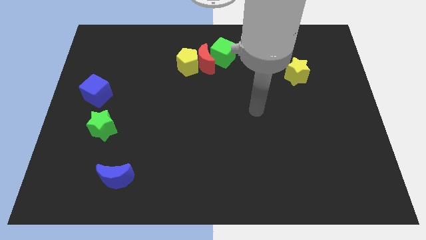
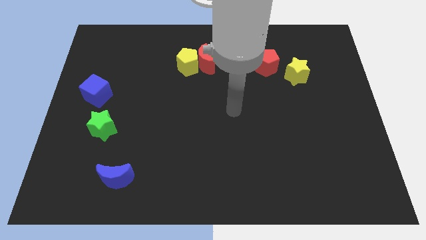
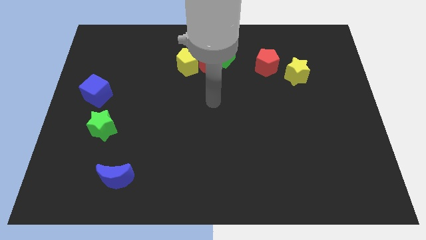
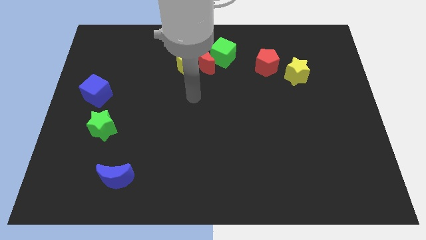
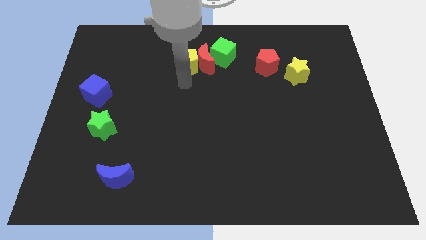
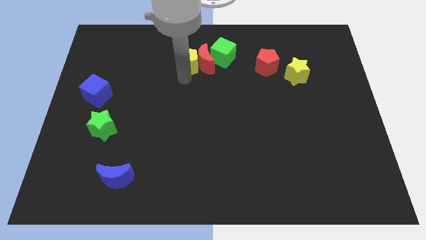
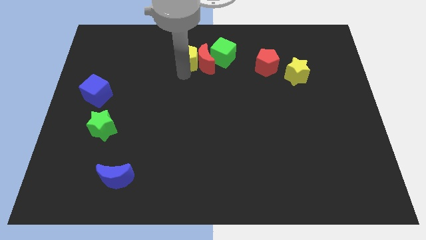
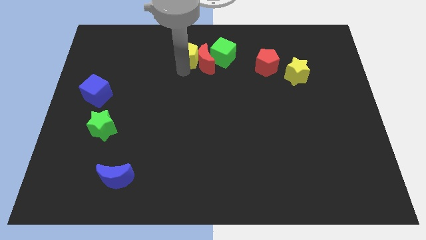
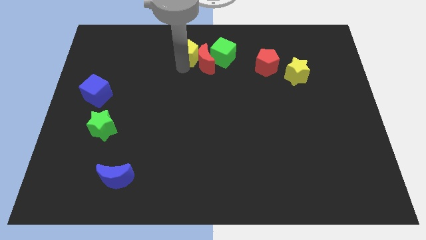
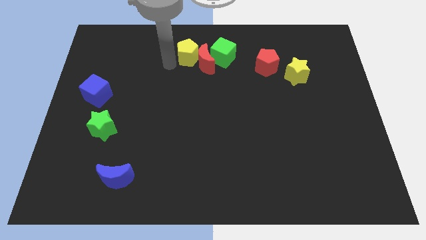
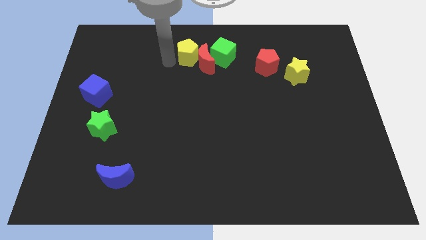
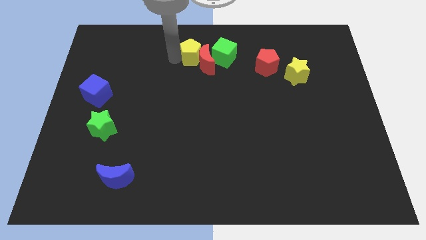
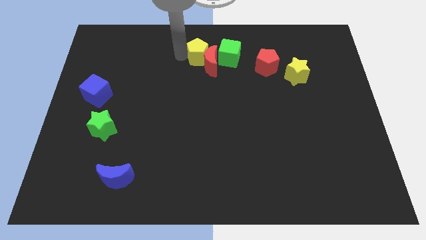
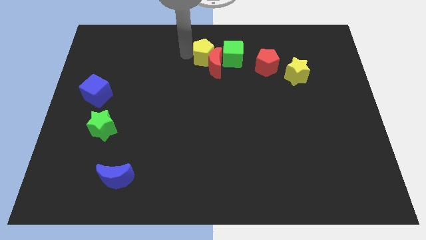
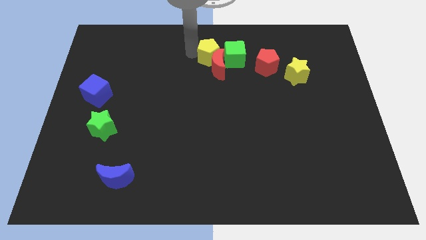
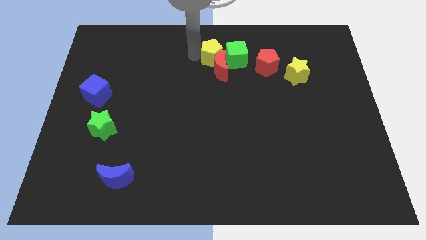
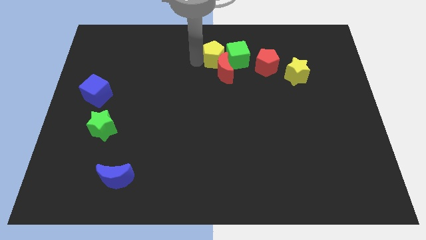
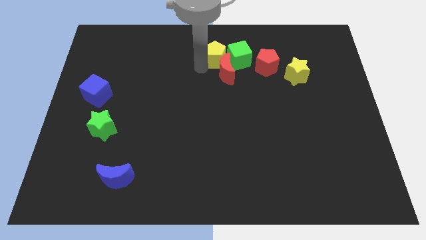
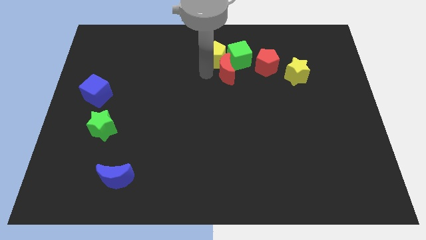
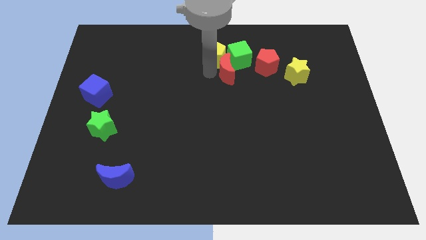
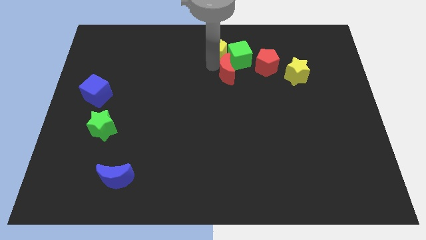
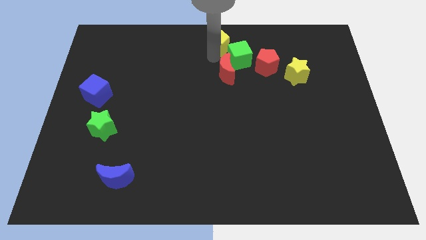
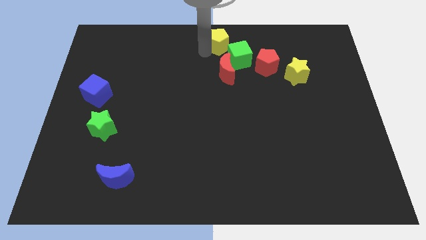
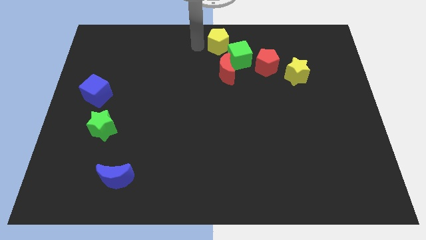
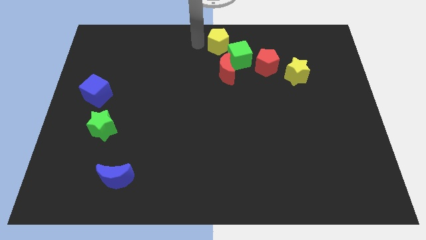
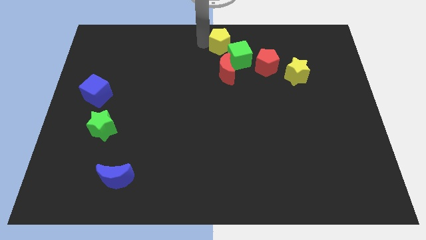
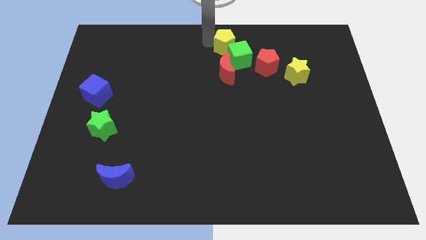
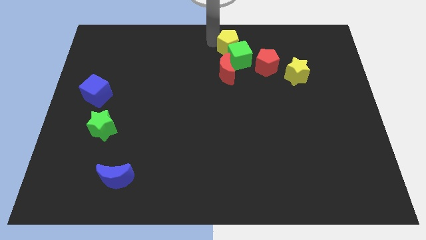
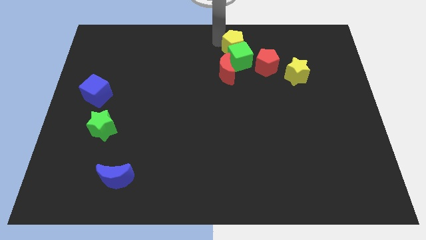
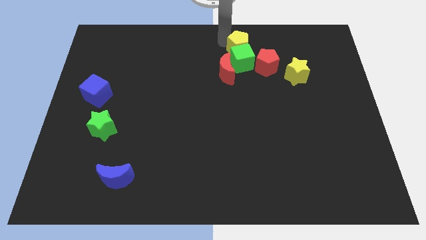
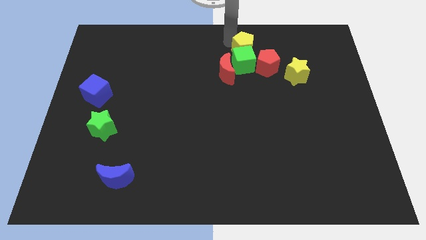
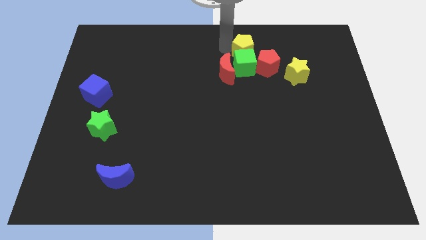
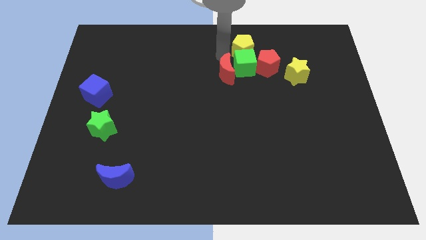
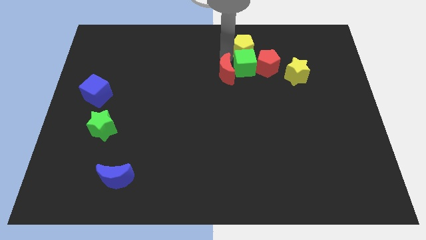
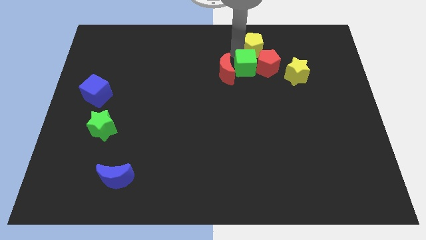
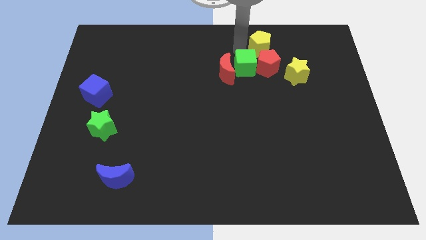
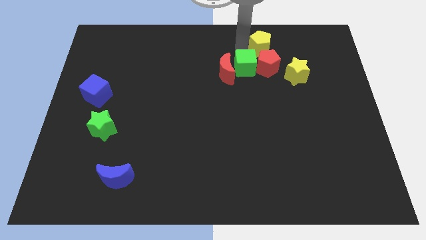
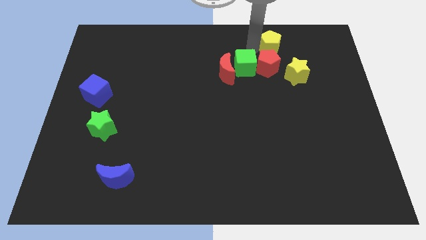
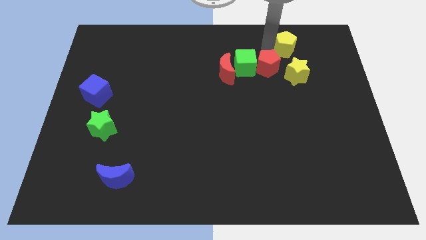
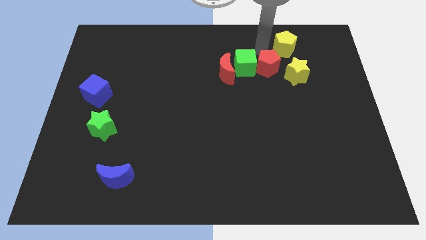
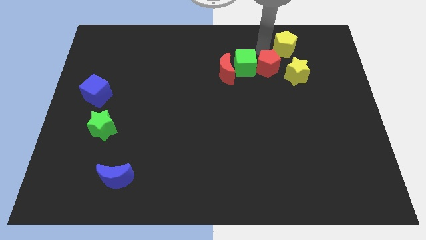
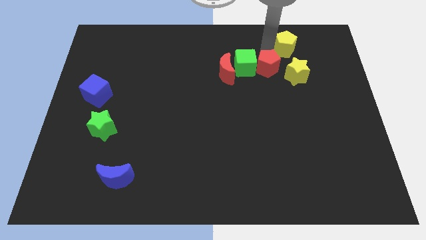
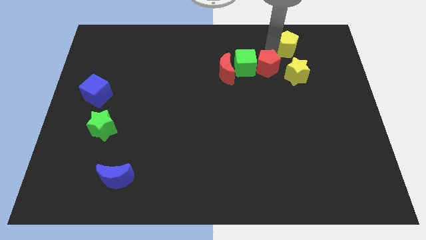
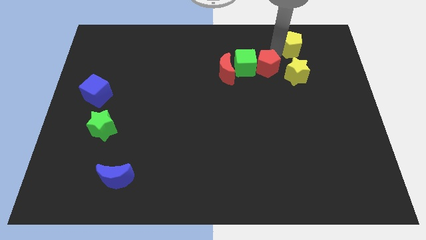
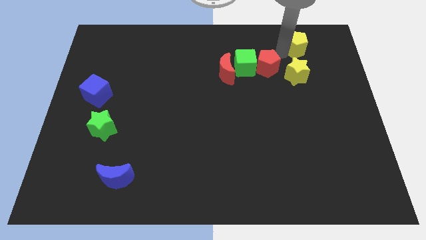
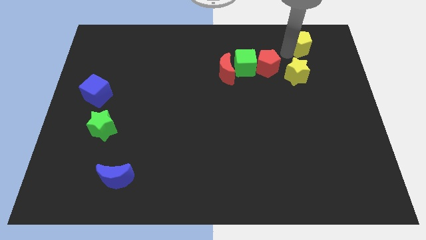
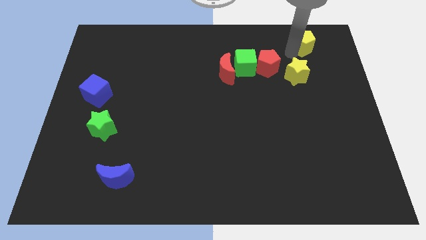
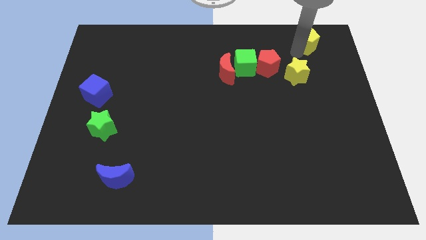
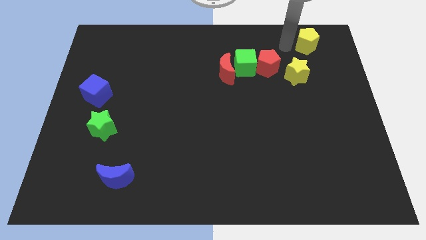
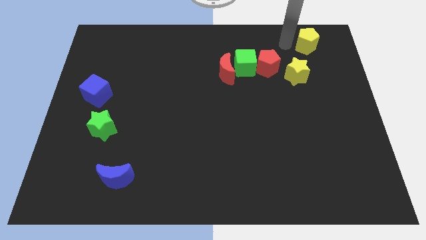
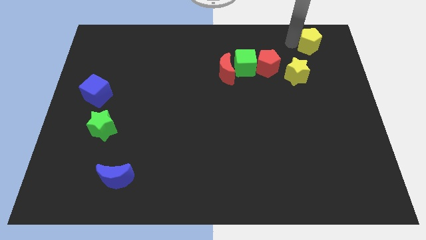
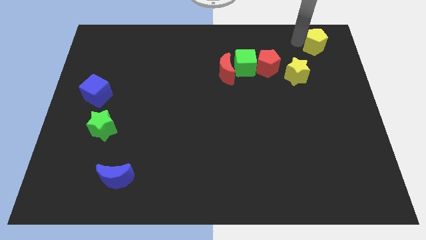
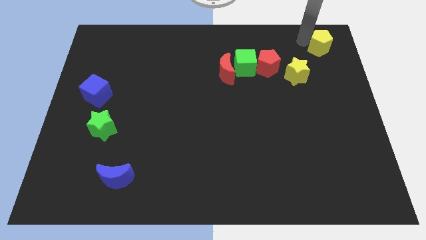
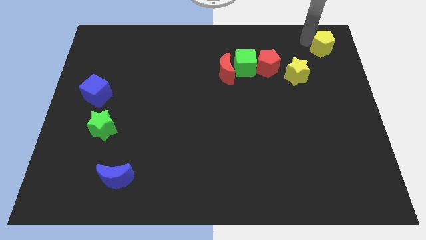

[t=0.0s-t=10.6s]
push the yellow pentagon to the top right of the board
